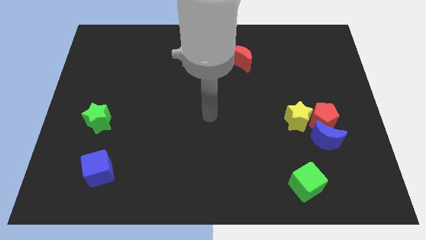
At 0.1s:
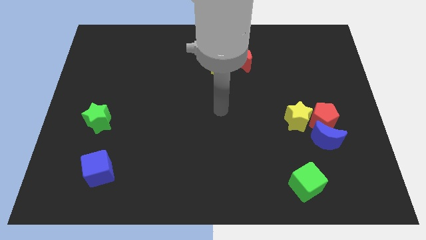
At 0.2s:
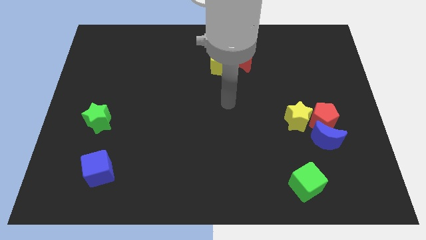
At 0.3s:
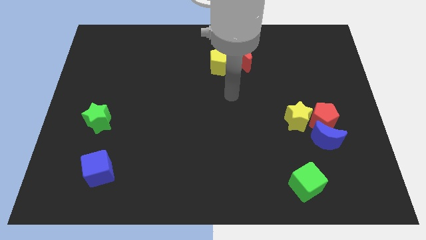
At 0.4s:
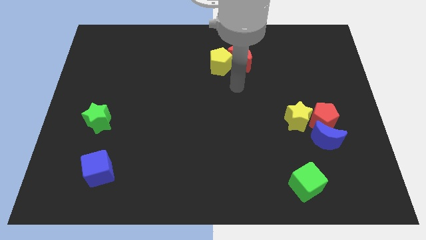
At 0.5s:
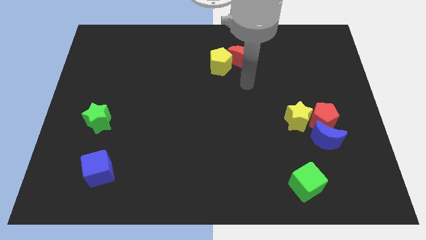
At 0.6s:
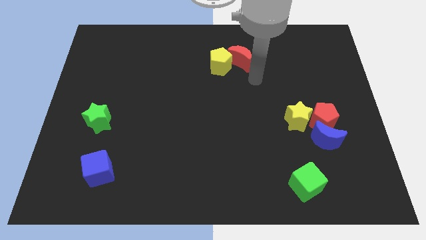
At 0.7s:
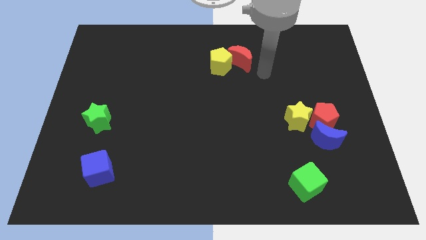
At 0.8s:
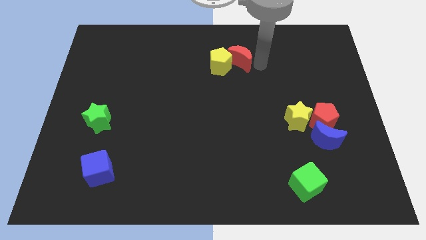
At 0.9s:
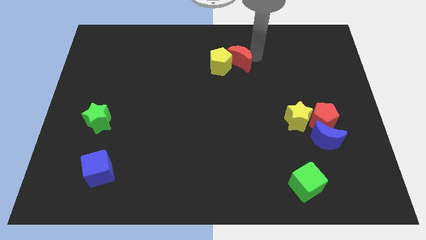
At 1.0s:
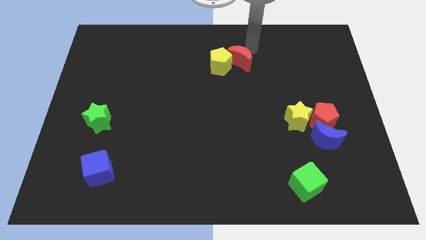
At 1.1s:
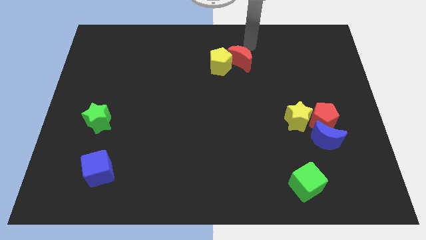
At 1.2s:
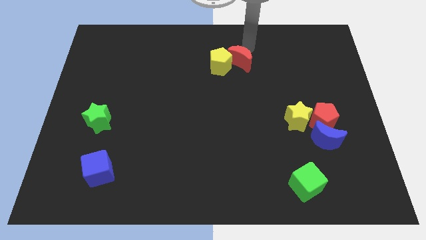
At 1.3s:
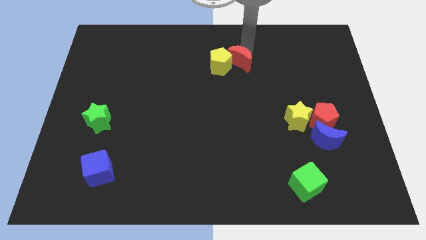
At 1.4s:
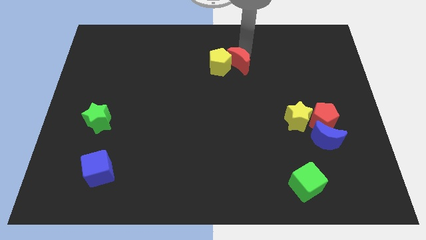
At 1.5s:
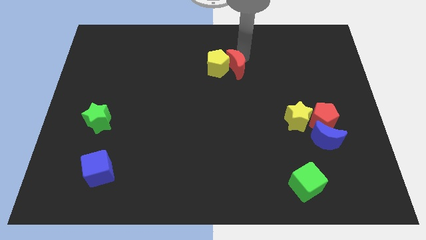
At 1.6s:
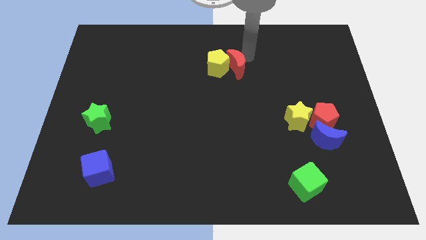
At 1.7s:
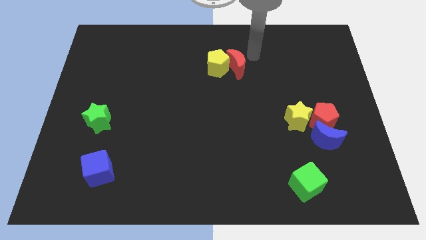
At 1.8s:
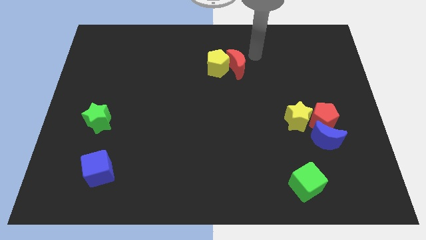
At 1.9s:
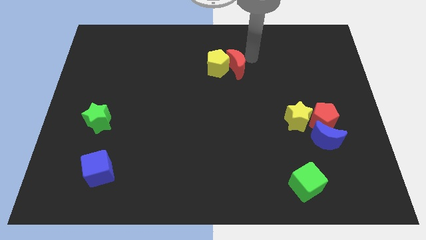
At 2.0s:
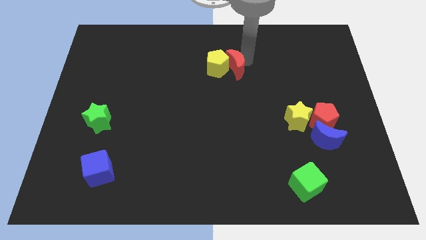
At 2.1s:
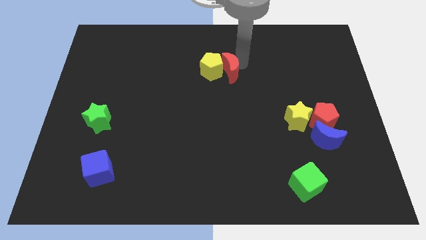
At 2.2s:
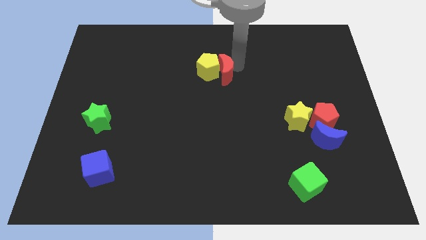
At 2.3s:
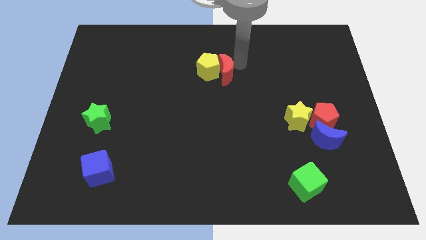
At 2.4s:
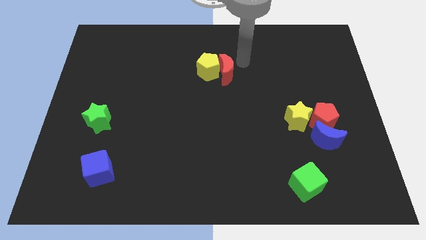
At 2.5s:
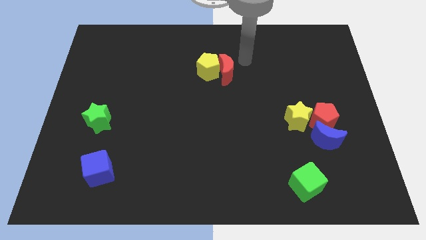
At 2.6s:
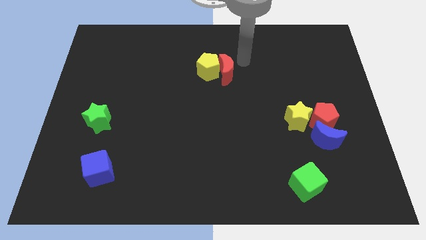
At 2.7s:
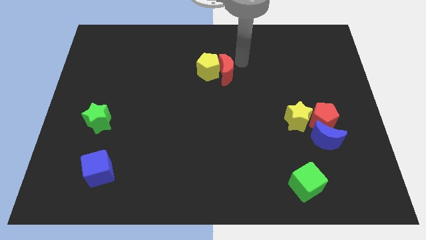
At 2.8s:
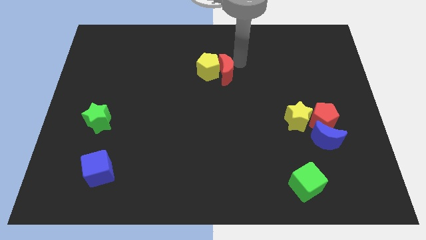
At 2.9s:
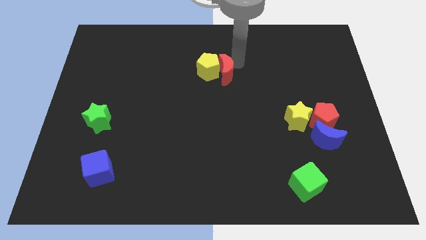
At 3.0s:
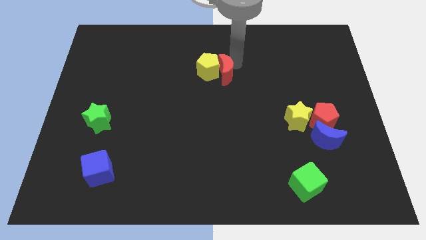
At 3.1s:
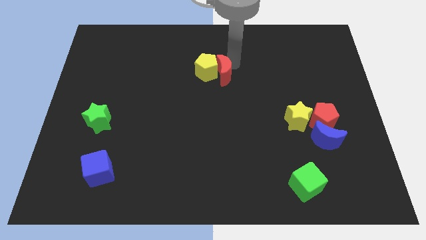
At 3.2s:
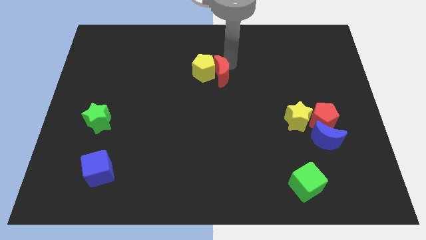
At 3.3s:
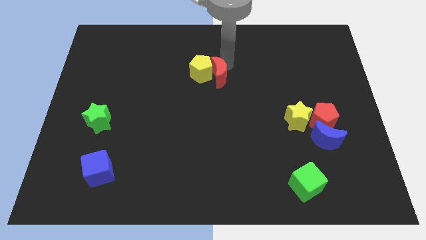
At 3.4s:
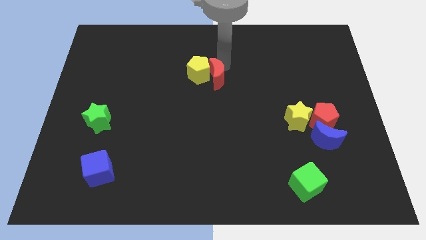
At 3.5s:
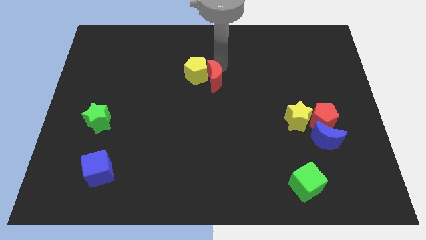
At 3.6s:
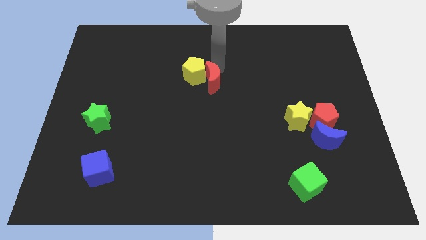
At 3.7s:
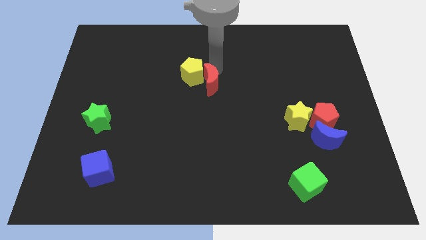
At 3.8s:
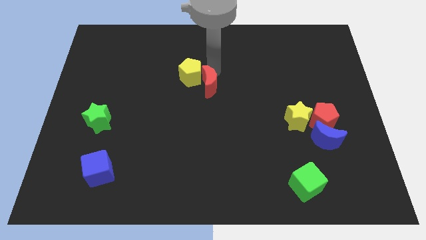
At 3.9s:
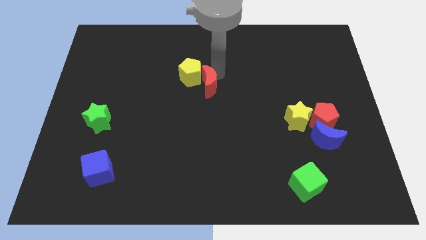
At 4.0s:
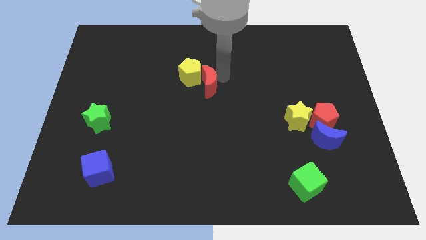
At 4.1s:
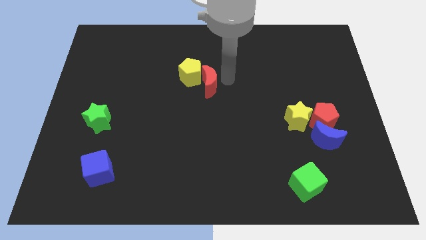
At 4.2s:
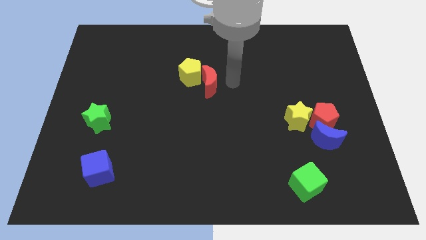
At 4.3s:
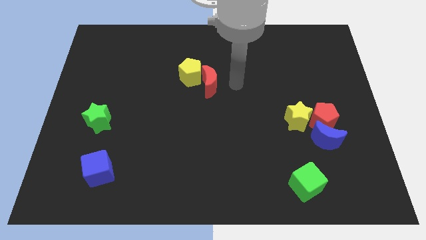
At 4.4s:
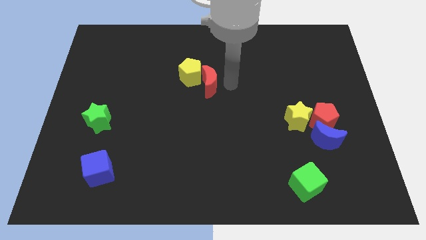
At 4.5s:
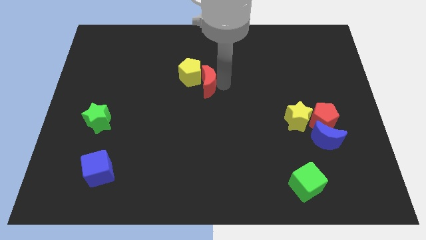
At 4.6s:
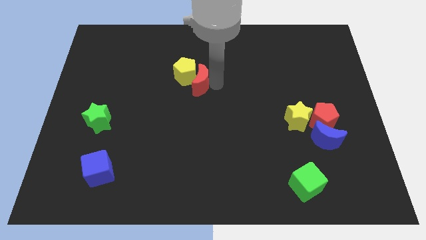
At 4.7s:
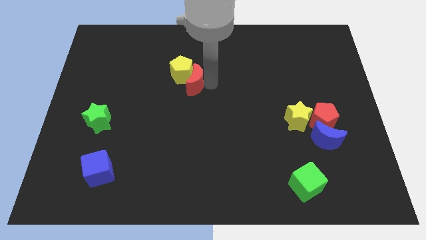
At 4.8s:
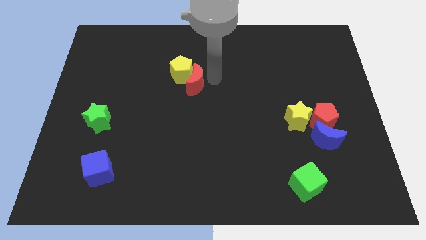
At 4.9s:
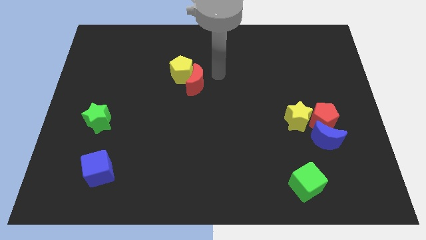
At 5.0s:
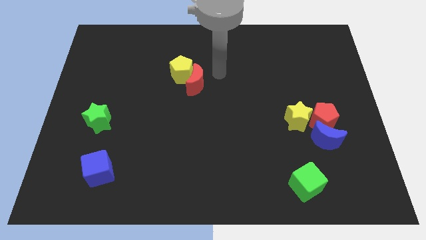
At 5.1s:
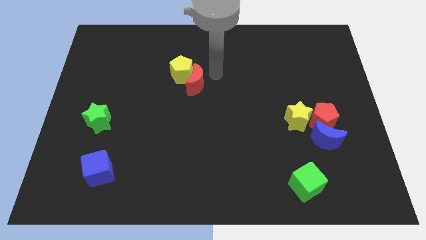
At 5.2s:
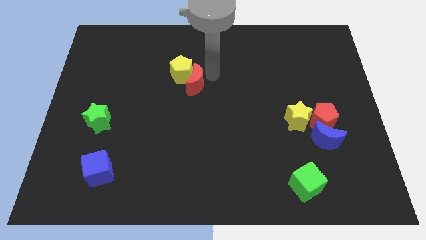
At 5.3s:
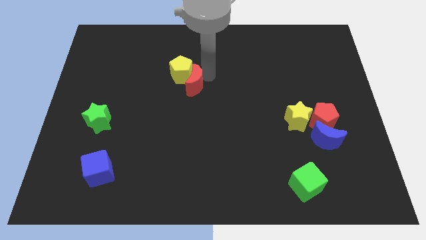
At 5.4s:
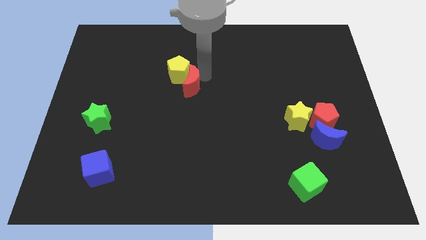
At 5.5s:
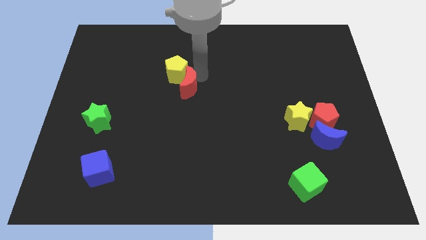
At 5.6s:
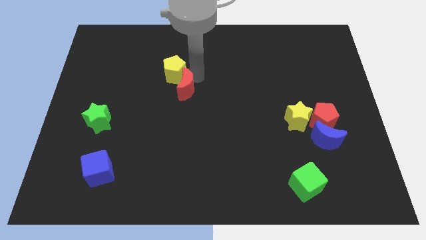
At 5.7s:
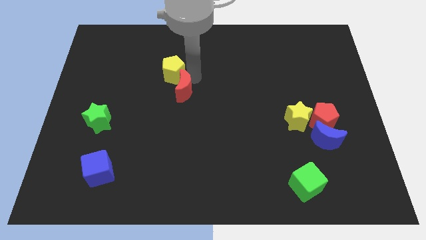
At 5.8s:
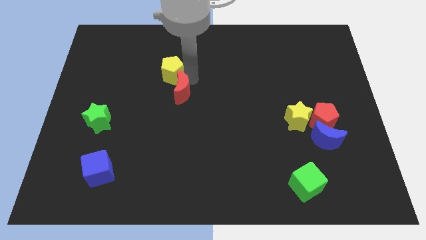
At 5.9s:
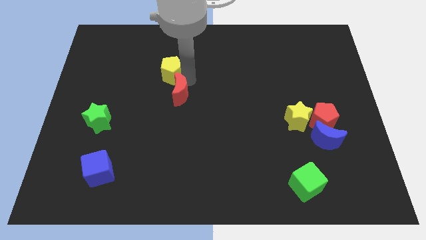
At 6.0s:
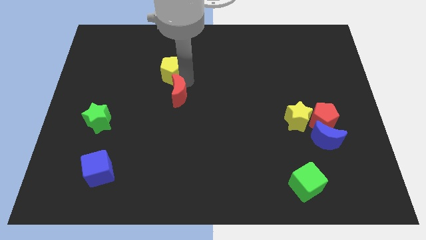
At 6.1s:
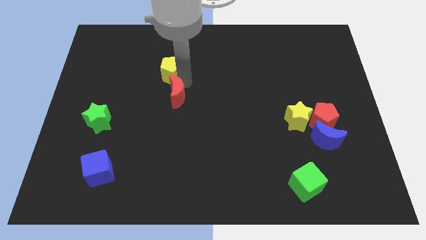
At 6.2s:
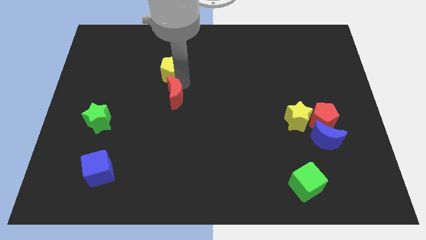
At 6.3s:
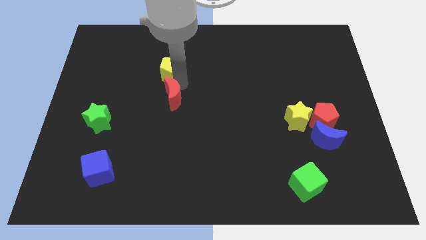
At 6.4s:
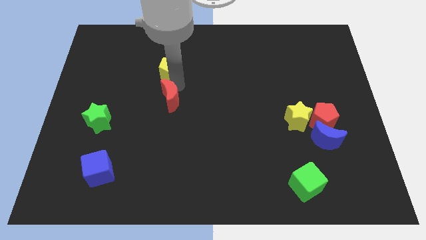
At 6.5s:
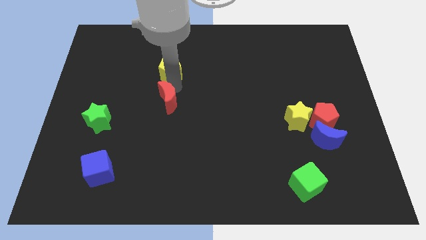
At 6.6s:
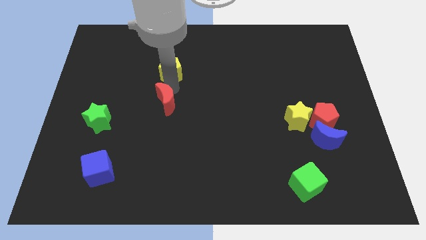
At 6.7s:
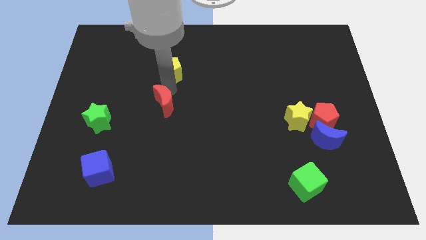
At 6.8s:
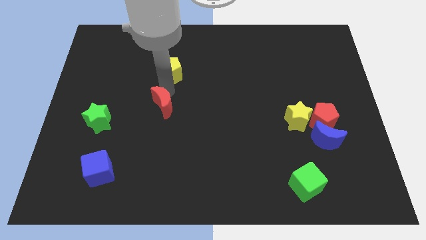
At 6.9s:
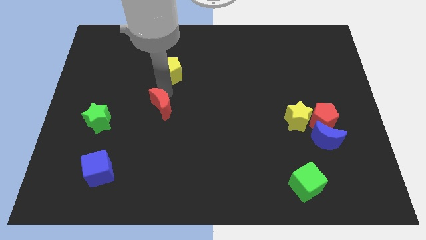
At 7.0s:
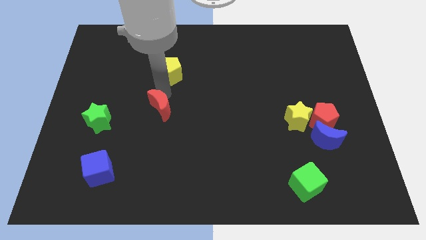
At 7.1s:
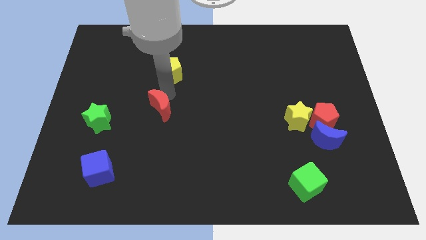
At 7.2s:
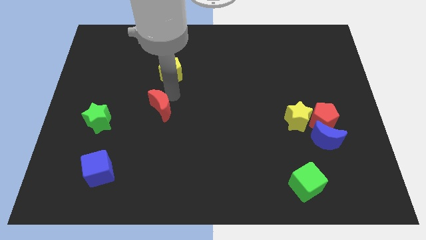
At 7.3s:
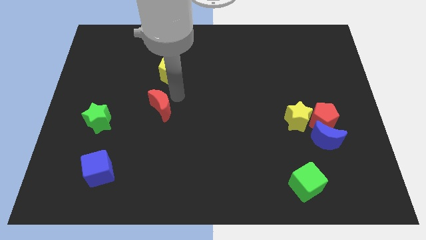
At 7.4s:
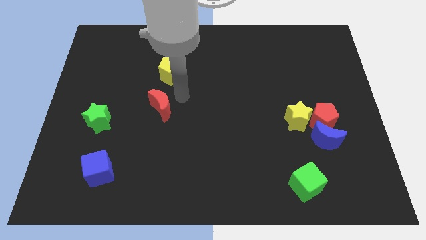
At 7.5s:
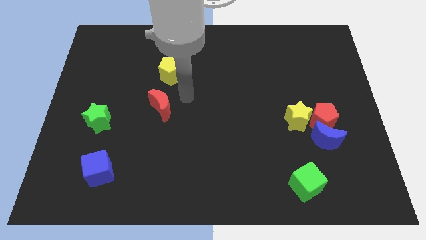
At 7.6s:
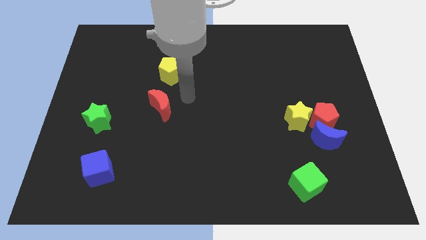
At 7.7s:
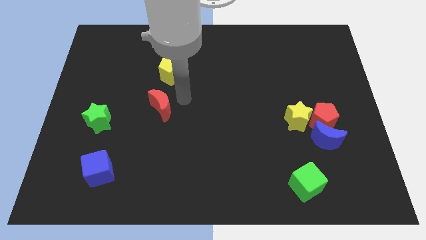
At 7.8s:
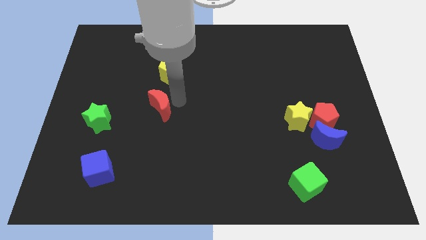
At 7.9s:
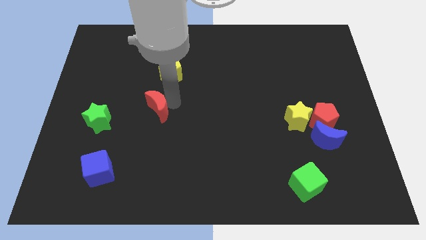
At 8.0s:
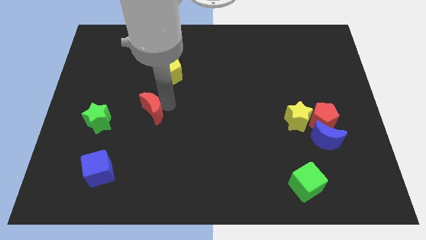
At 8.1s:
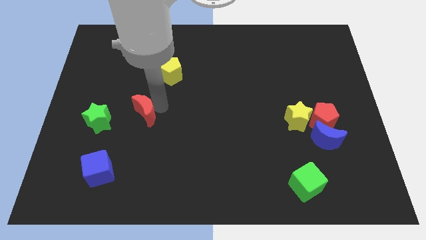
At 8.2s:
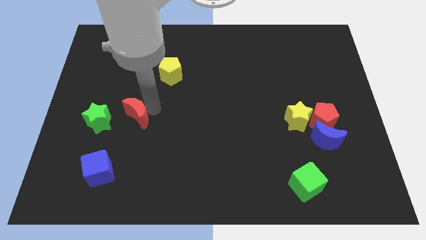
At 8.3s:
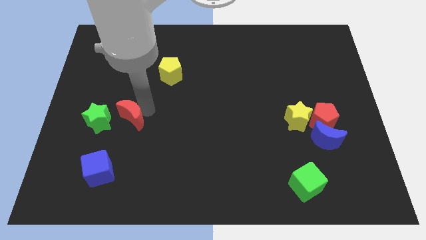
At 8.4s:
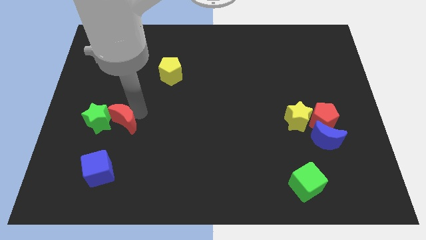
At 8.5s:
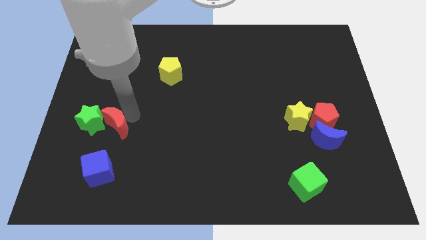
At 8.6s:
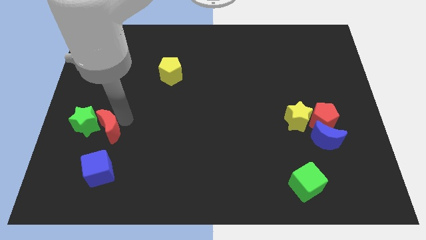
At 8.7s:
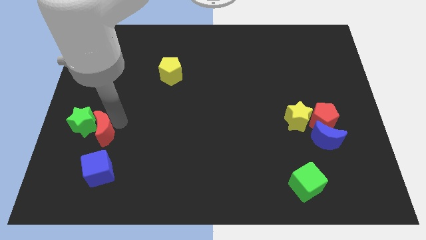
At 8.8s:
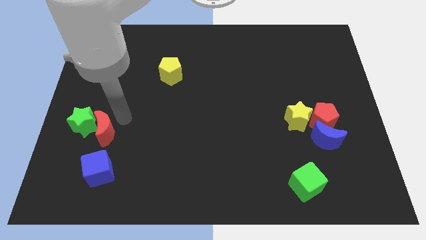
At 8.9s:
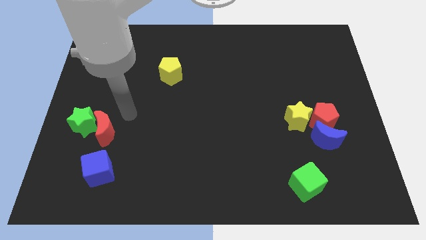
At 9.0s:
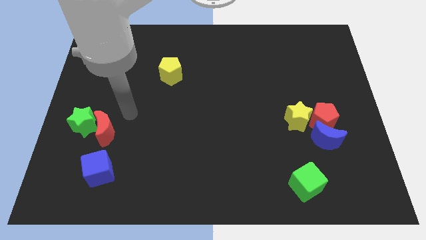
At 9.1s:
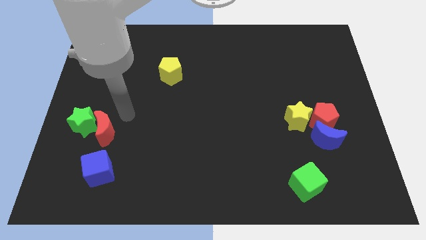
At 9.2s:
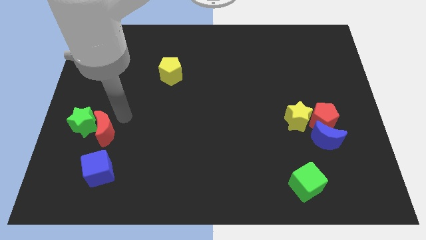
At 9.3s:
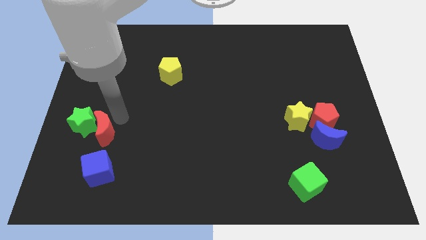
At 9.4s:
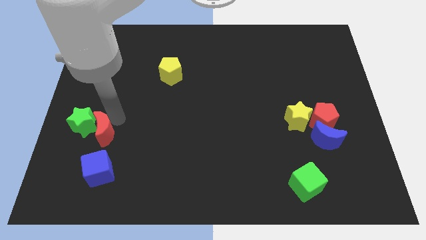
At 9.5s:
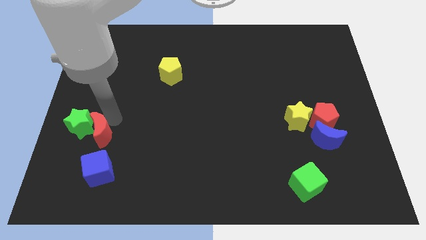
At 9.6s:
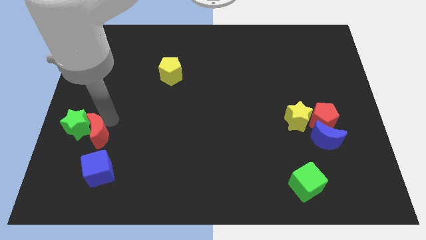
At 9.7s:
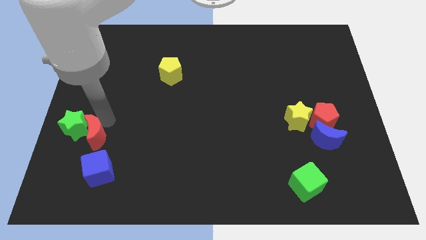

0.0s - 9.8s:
slide the red moon diagonally up and to the left of the blue cube
